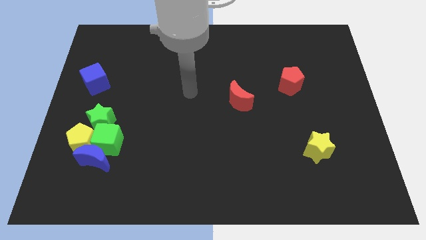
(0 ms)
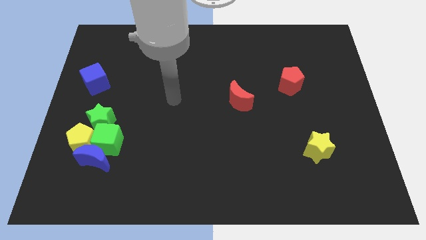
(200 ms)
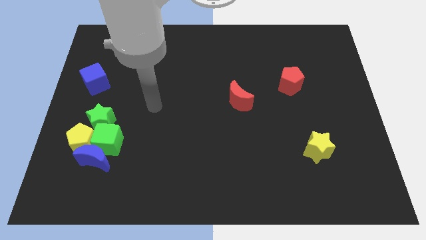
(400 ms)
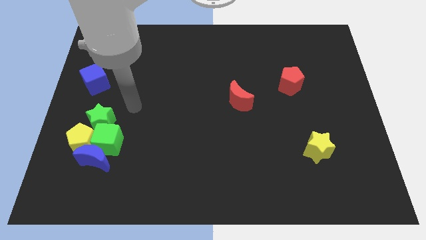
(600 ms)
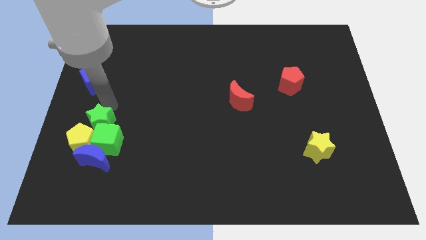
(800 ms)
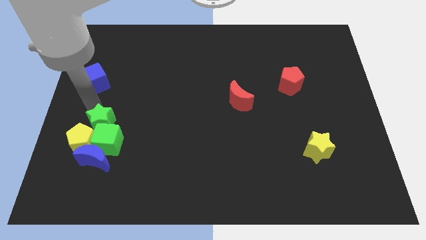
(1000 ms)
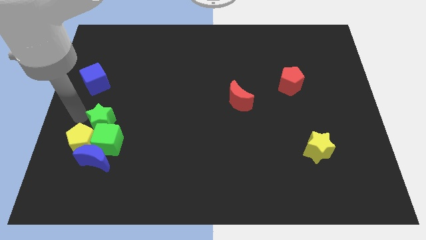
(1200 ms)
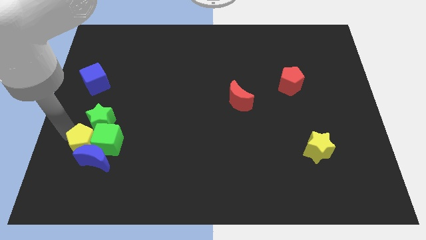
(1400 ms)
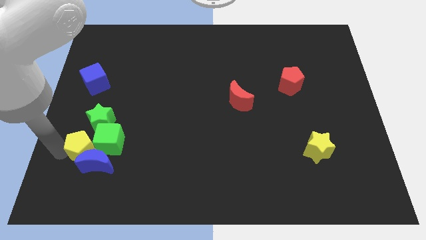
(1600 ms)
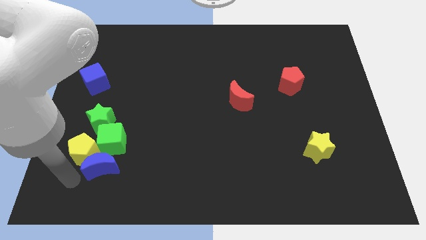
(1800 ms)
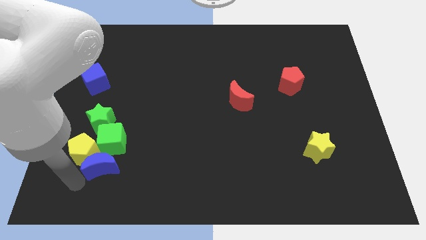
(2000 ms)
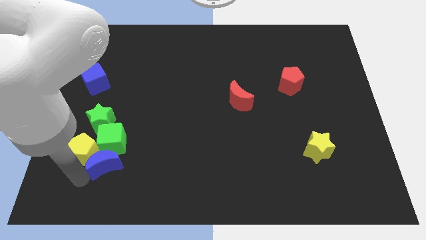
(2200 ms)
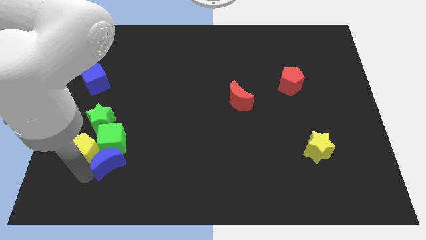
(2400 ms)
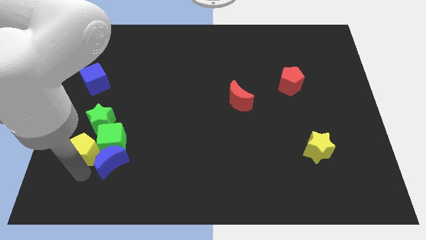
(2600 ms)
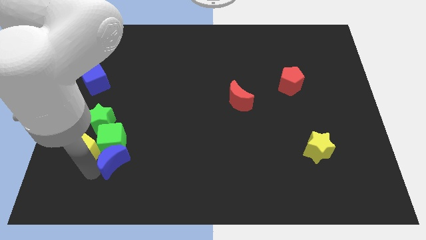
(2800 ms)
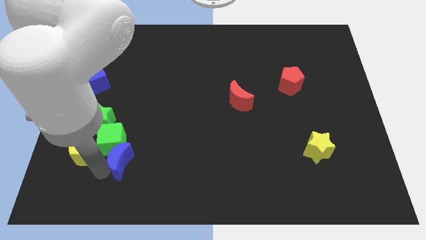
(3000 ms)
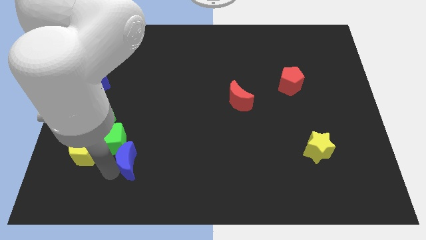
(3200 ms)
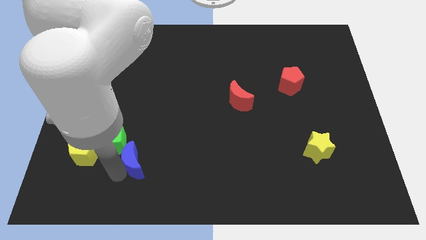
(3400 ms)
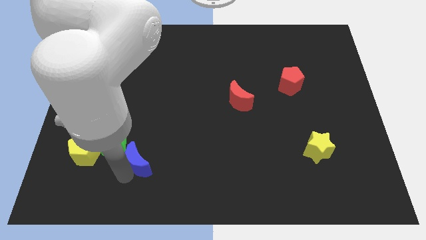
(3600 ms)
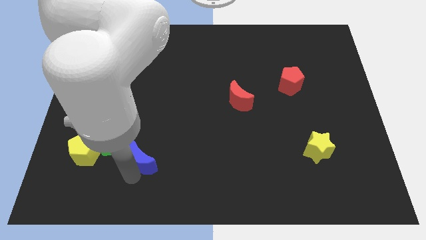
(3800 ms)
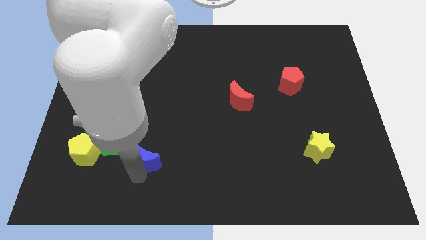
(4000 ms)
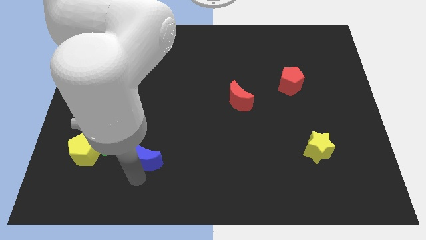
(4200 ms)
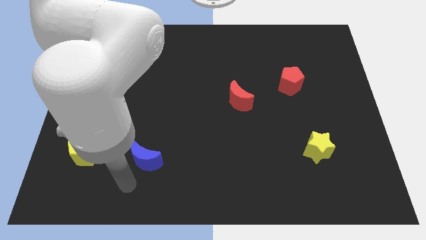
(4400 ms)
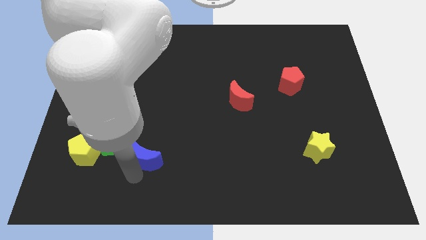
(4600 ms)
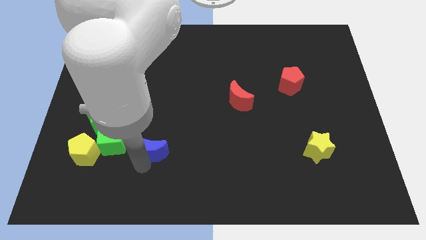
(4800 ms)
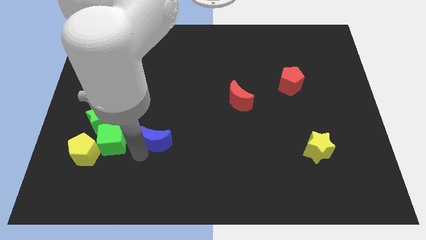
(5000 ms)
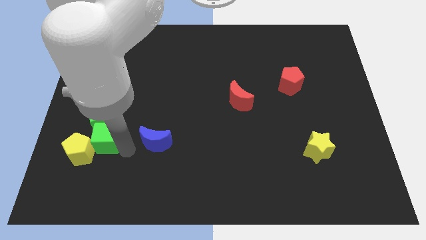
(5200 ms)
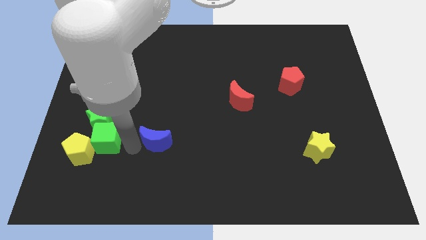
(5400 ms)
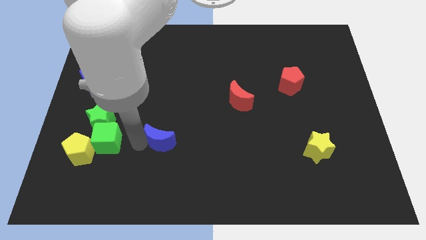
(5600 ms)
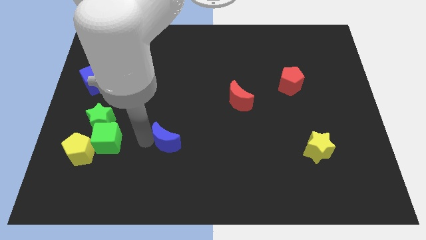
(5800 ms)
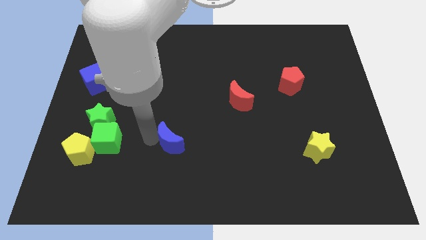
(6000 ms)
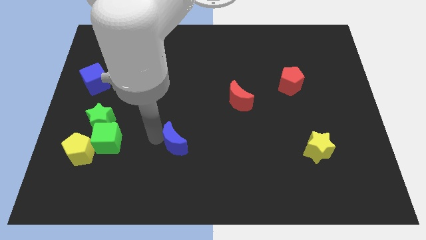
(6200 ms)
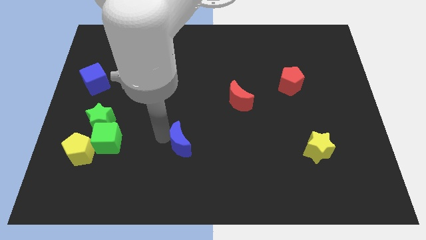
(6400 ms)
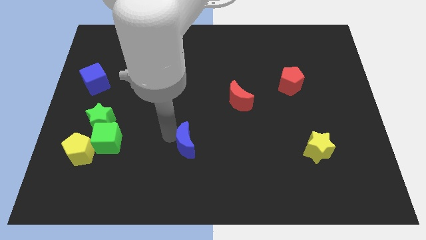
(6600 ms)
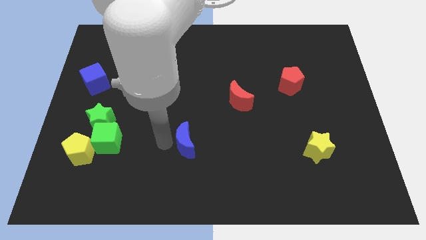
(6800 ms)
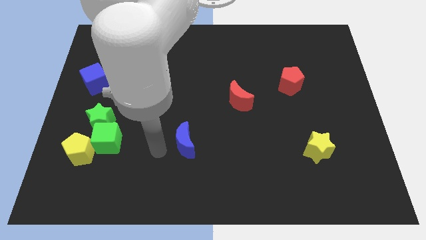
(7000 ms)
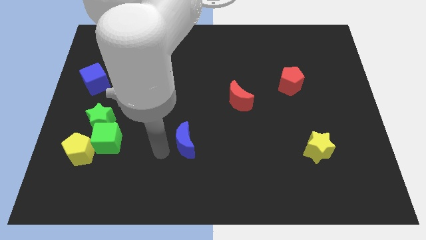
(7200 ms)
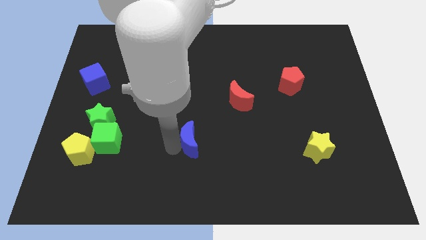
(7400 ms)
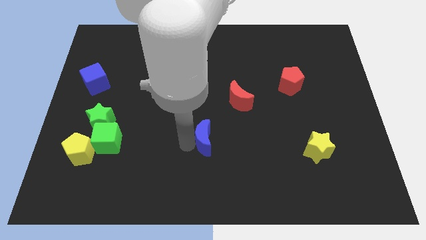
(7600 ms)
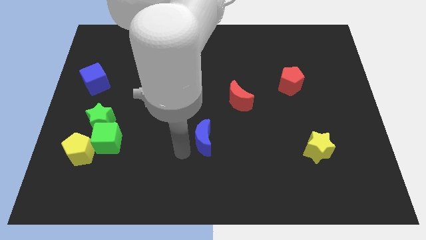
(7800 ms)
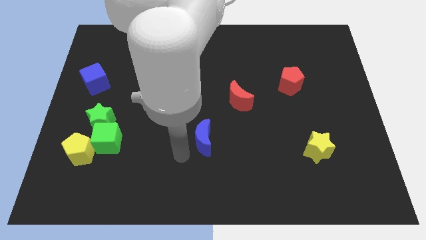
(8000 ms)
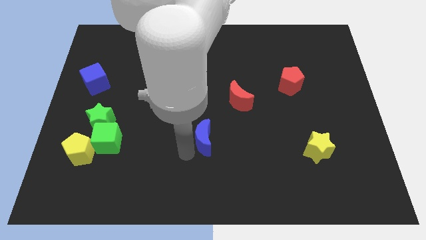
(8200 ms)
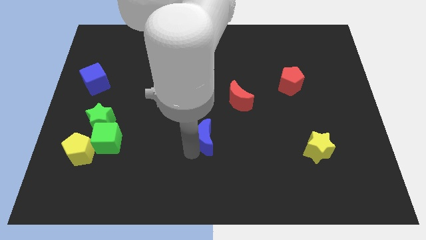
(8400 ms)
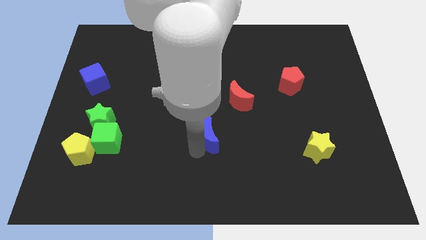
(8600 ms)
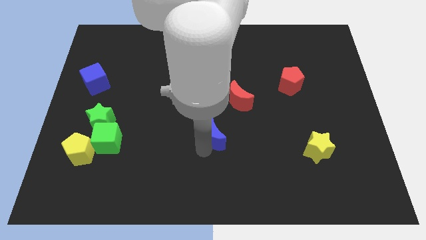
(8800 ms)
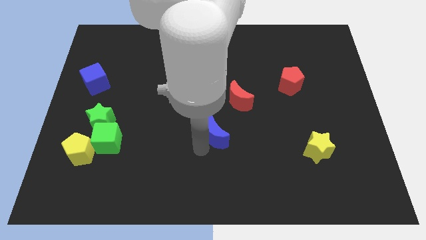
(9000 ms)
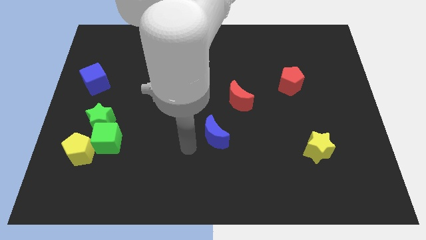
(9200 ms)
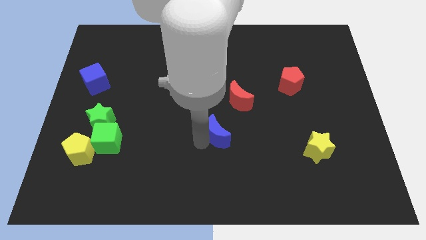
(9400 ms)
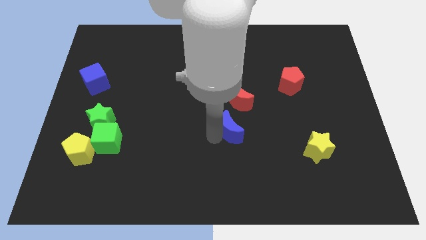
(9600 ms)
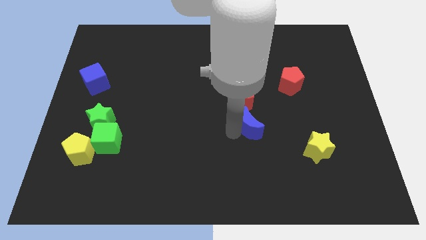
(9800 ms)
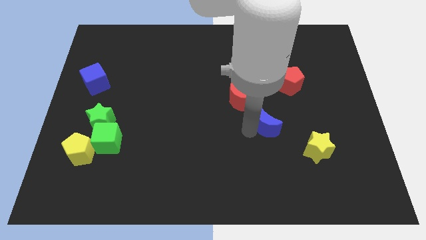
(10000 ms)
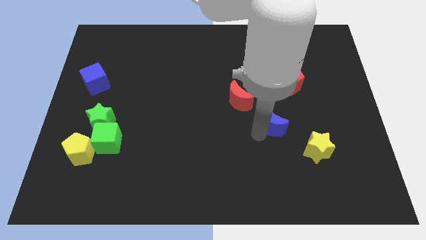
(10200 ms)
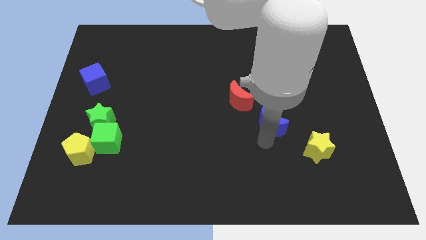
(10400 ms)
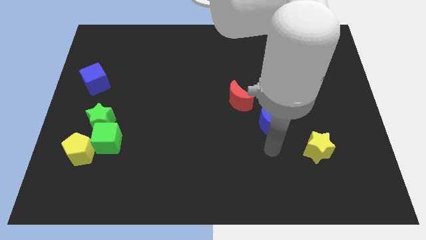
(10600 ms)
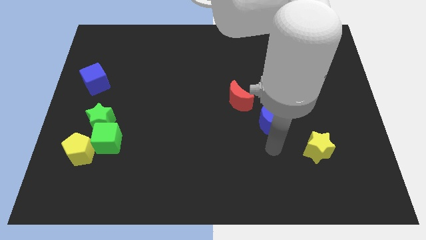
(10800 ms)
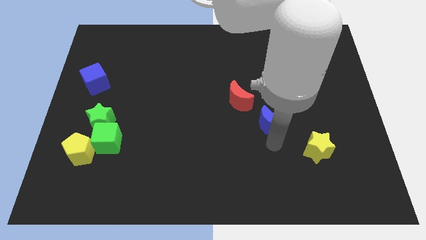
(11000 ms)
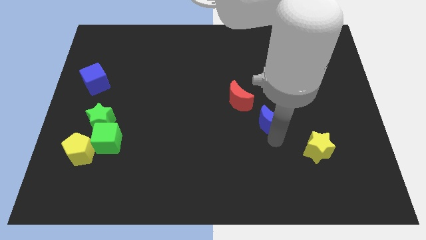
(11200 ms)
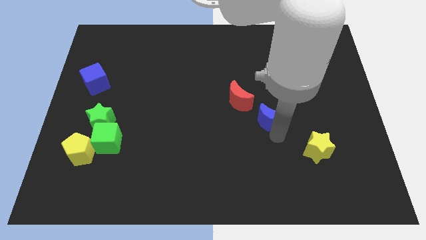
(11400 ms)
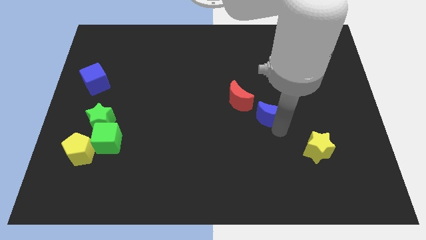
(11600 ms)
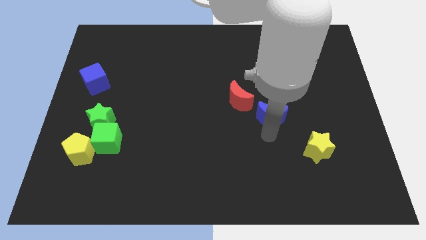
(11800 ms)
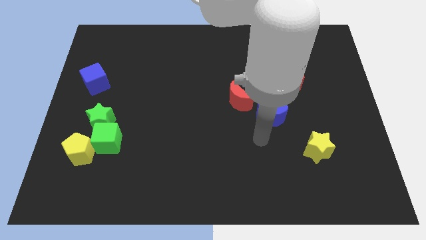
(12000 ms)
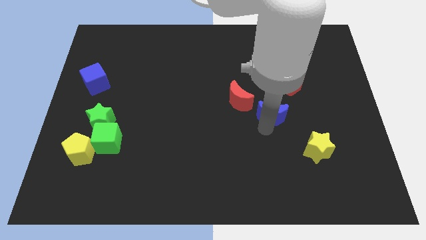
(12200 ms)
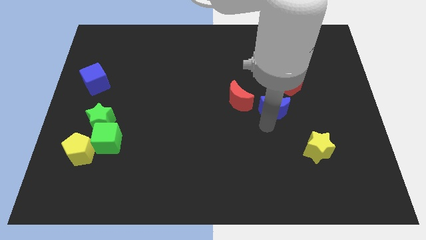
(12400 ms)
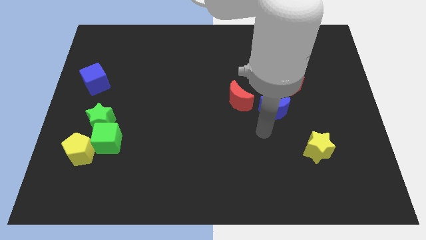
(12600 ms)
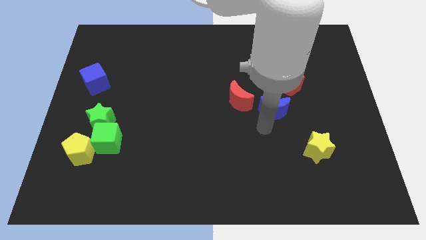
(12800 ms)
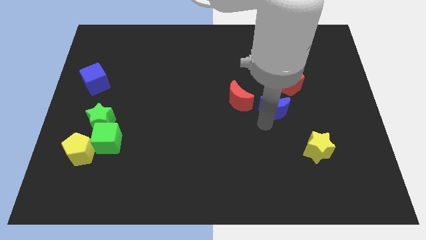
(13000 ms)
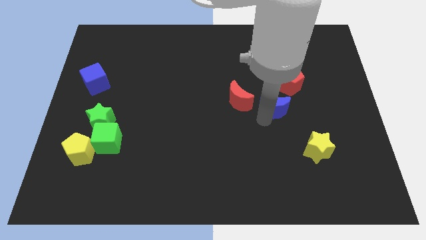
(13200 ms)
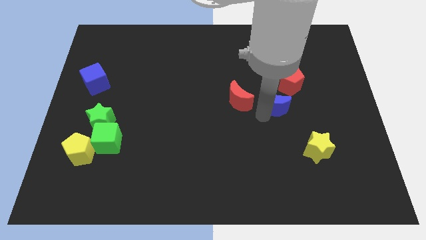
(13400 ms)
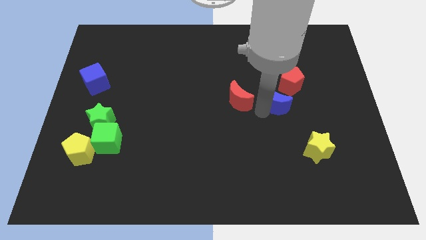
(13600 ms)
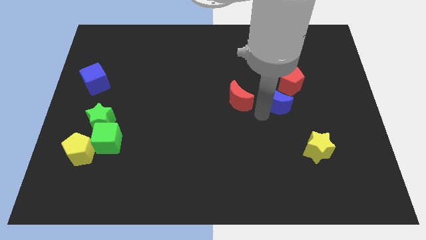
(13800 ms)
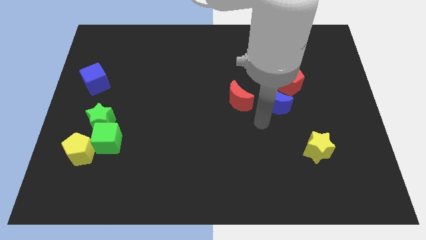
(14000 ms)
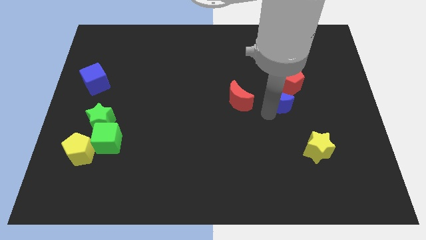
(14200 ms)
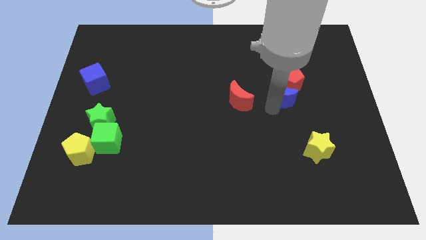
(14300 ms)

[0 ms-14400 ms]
push the blue moon to the red pentagon
